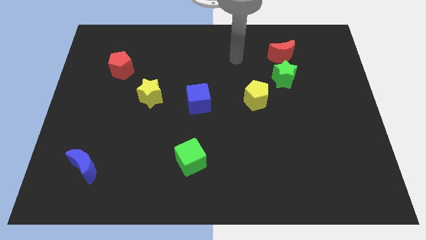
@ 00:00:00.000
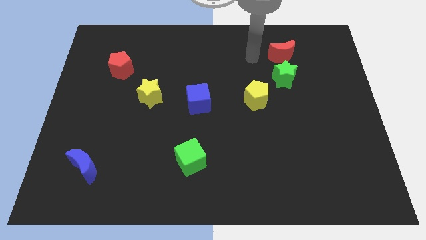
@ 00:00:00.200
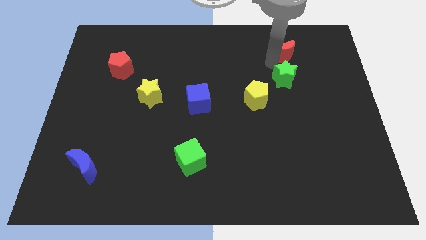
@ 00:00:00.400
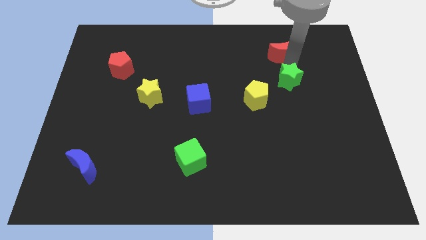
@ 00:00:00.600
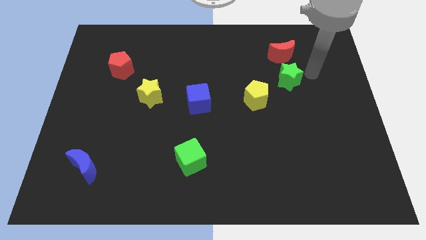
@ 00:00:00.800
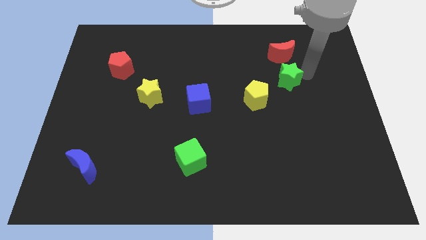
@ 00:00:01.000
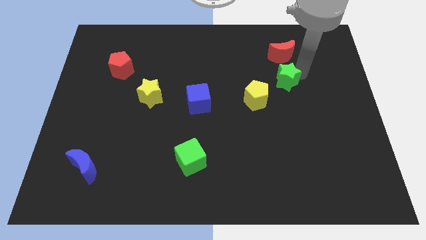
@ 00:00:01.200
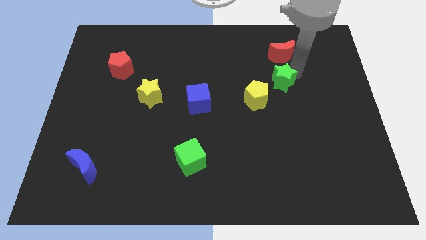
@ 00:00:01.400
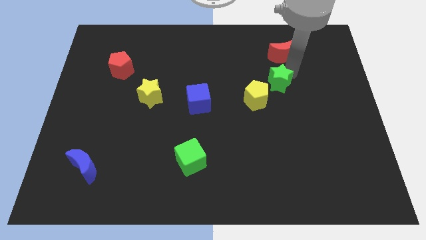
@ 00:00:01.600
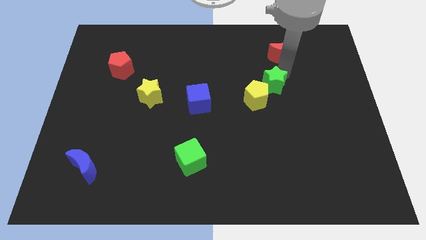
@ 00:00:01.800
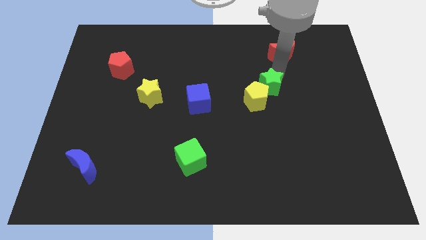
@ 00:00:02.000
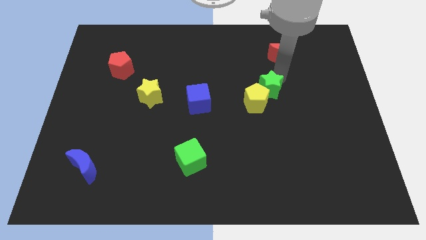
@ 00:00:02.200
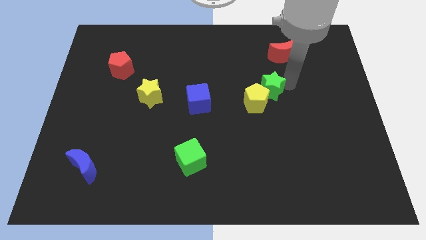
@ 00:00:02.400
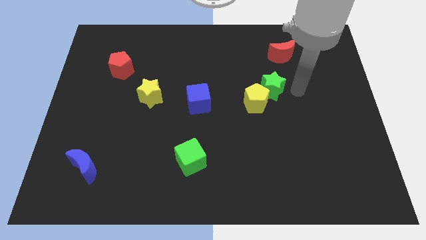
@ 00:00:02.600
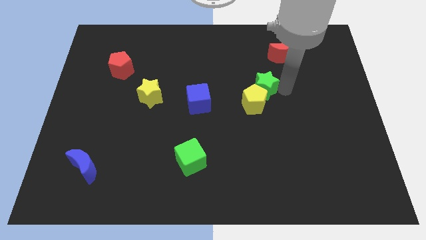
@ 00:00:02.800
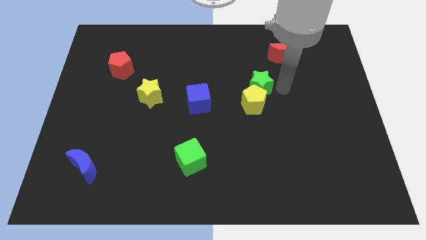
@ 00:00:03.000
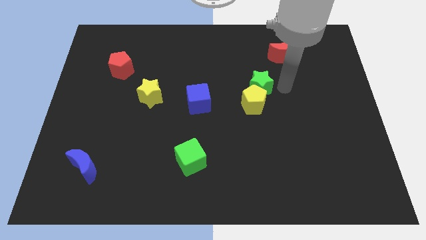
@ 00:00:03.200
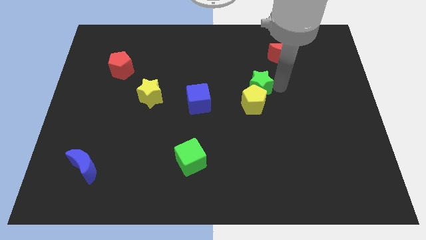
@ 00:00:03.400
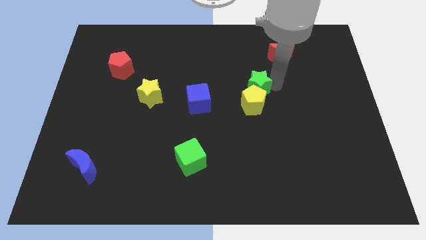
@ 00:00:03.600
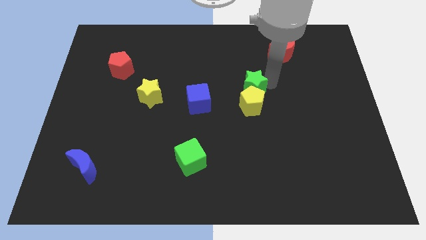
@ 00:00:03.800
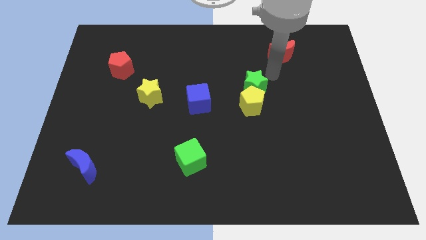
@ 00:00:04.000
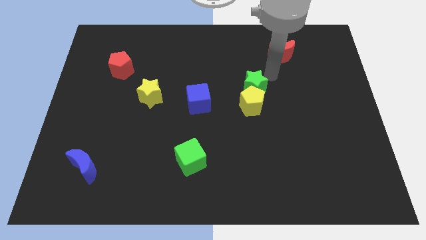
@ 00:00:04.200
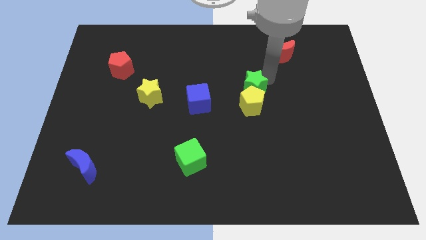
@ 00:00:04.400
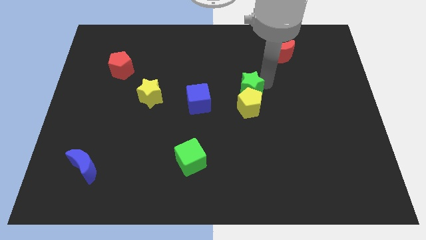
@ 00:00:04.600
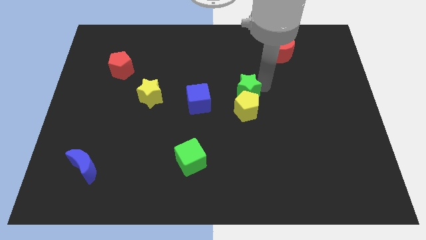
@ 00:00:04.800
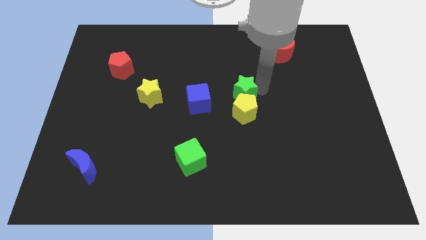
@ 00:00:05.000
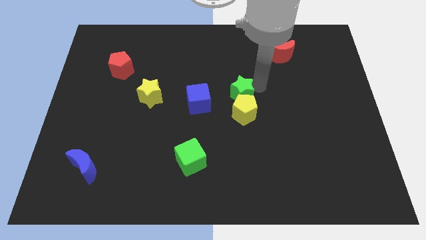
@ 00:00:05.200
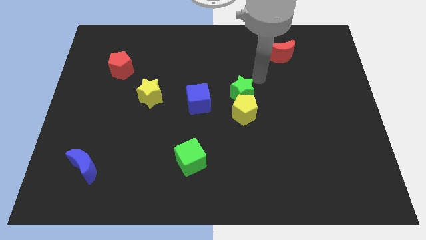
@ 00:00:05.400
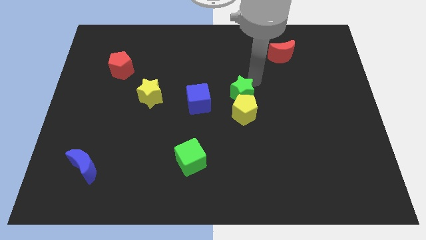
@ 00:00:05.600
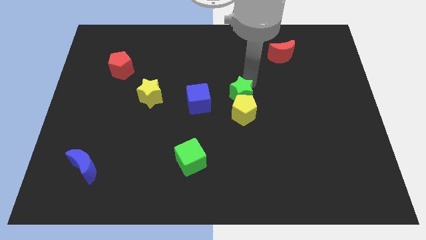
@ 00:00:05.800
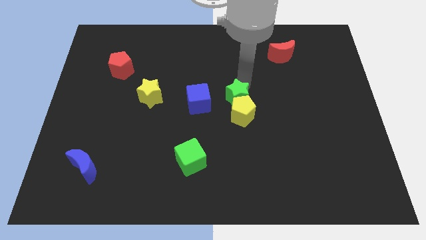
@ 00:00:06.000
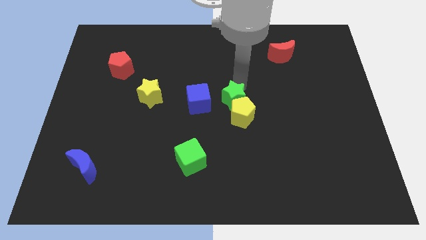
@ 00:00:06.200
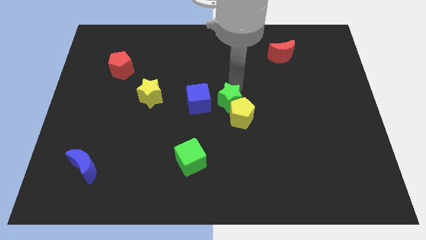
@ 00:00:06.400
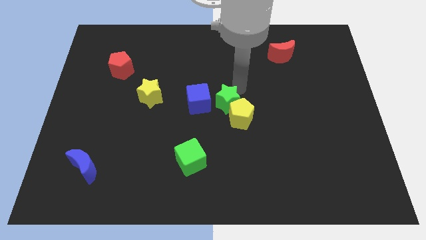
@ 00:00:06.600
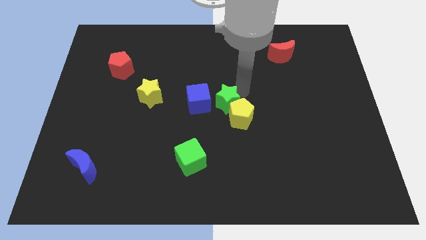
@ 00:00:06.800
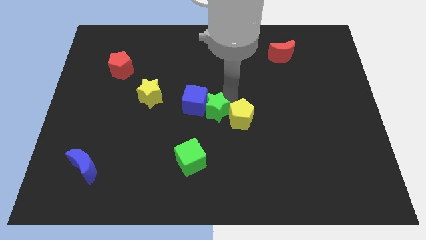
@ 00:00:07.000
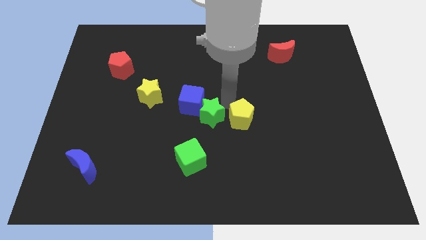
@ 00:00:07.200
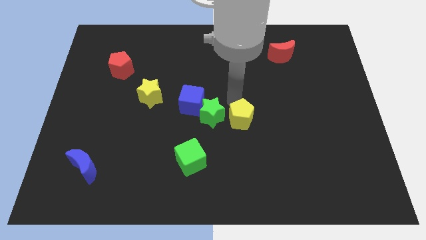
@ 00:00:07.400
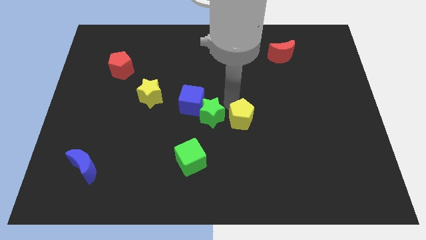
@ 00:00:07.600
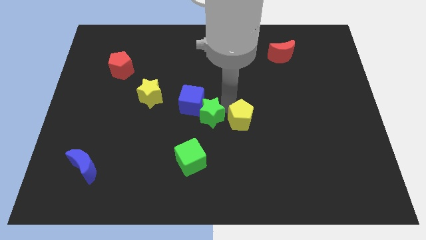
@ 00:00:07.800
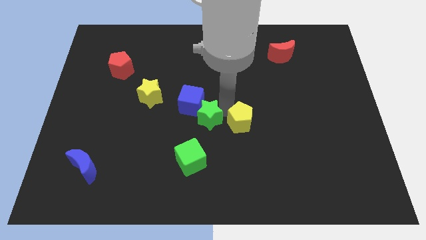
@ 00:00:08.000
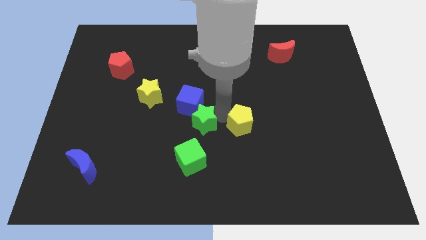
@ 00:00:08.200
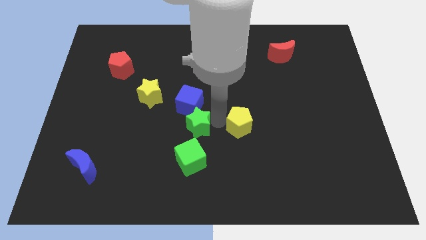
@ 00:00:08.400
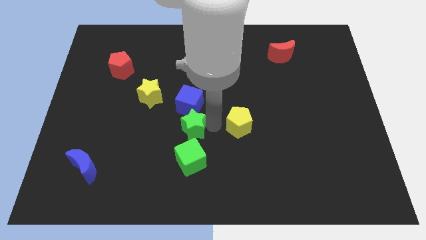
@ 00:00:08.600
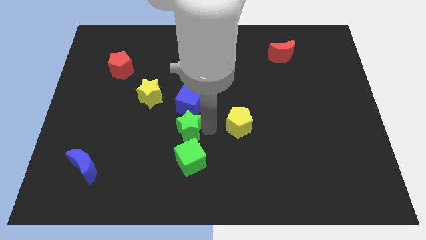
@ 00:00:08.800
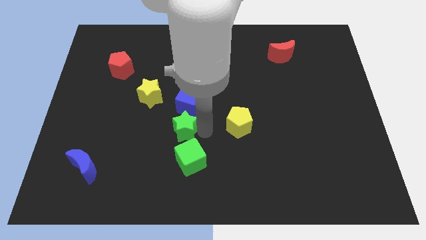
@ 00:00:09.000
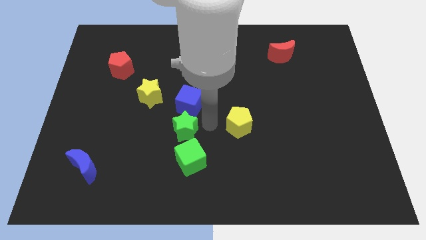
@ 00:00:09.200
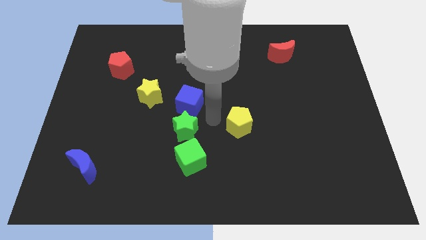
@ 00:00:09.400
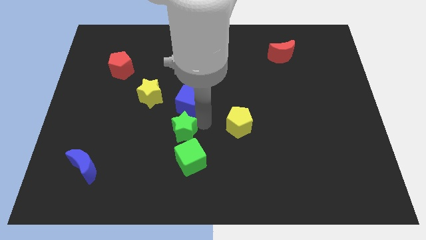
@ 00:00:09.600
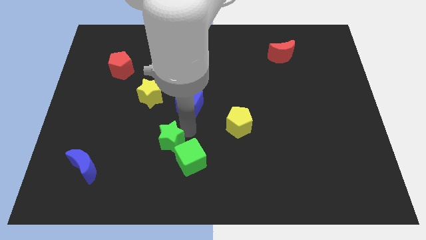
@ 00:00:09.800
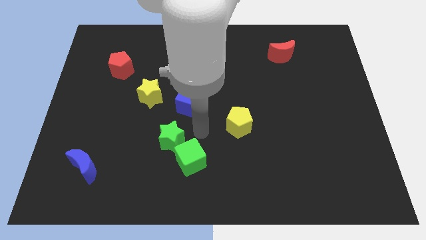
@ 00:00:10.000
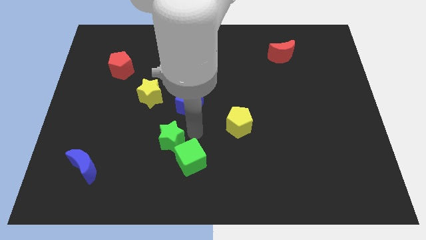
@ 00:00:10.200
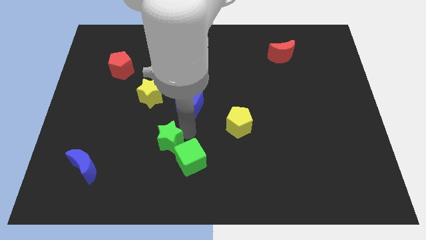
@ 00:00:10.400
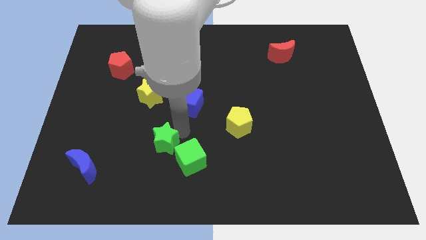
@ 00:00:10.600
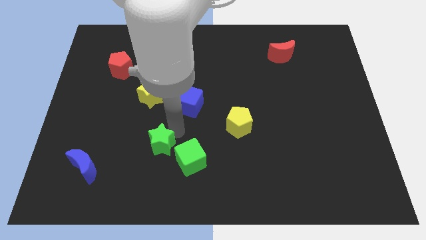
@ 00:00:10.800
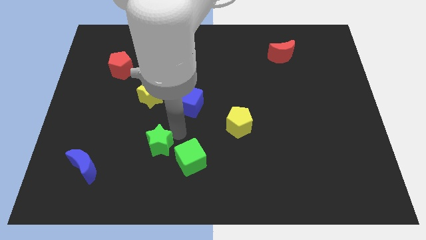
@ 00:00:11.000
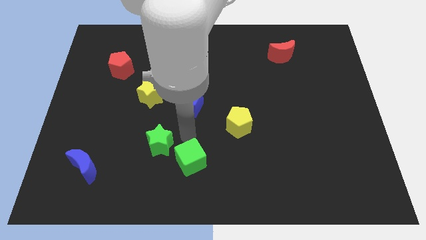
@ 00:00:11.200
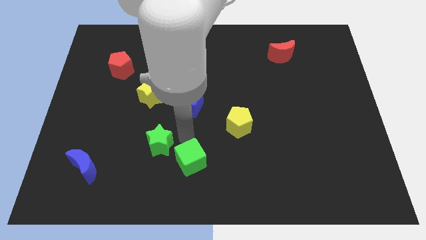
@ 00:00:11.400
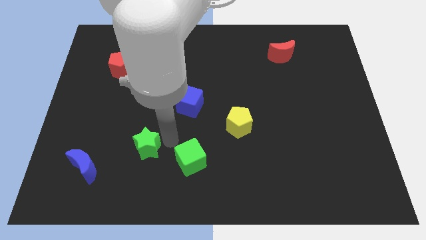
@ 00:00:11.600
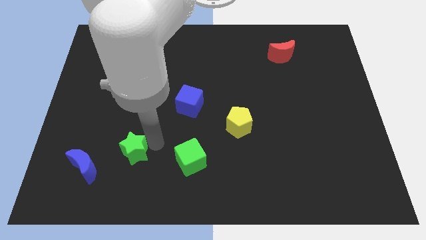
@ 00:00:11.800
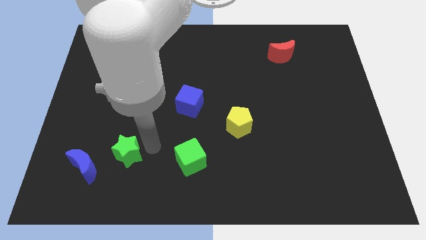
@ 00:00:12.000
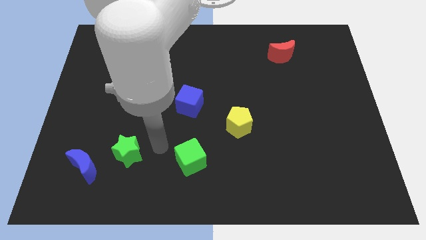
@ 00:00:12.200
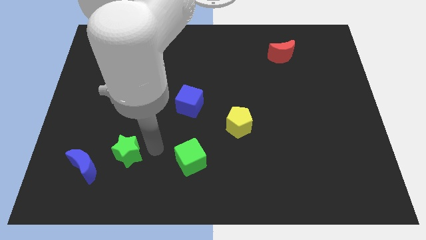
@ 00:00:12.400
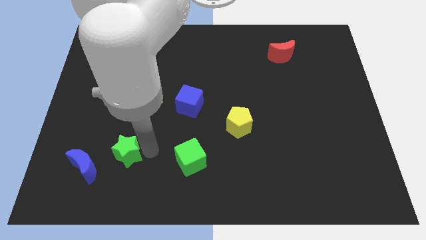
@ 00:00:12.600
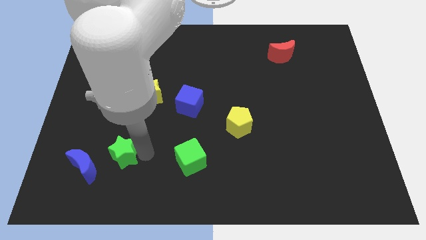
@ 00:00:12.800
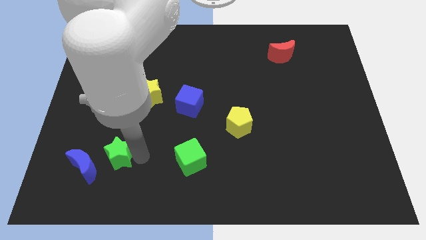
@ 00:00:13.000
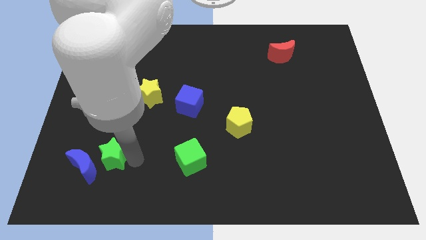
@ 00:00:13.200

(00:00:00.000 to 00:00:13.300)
slide the green star towards the blue moon
